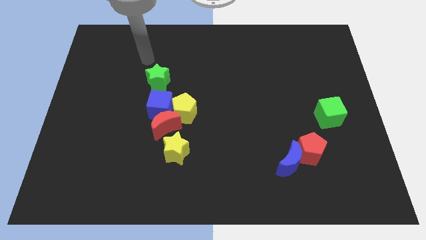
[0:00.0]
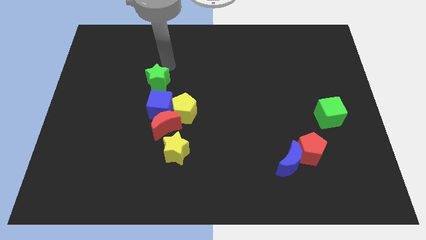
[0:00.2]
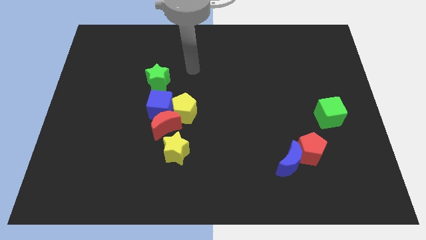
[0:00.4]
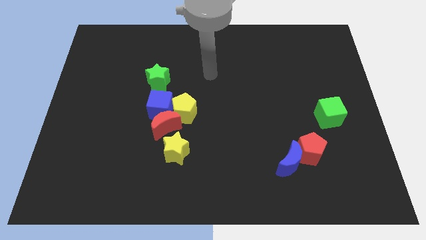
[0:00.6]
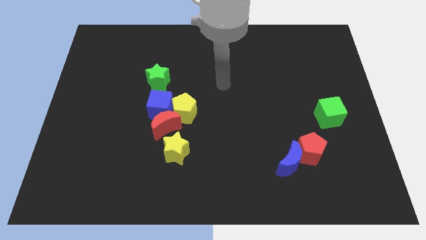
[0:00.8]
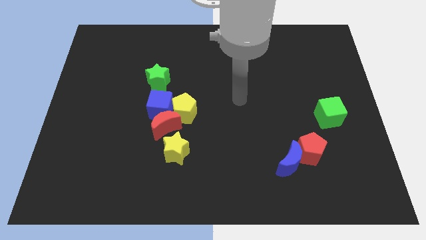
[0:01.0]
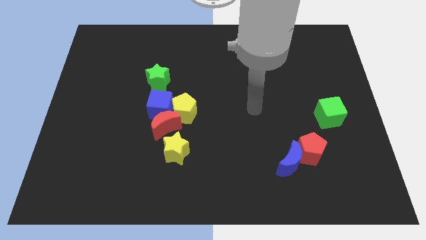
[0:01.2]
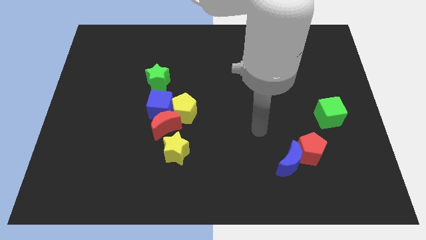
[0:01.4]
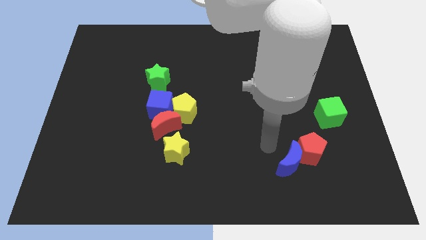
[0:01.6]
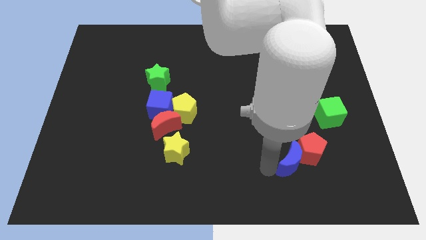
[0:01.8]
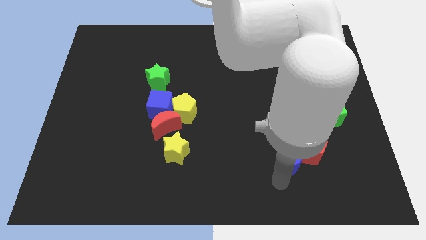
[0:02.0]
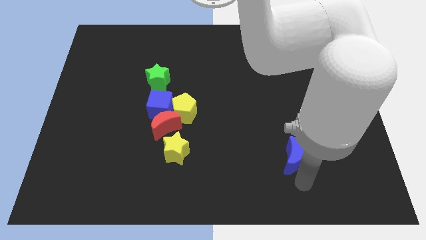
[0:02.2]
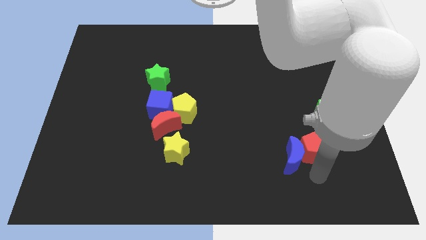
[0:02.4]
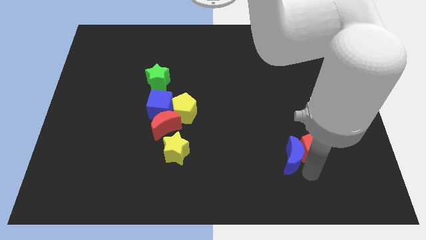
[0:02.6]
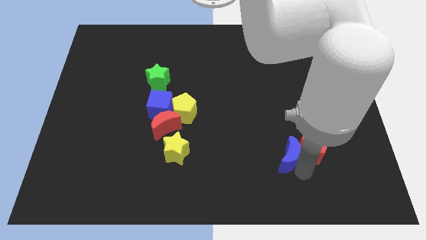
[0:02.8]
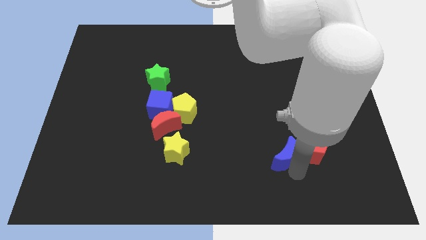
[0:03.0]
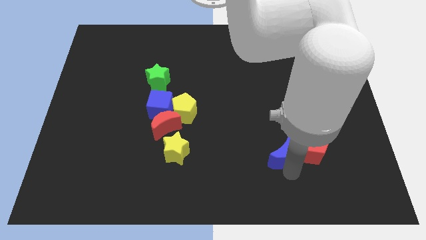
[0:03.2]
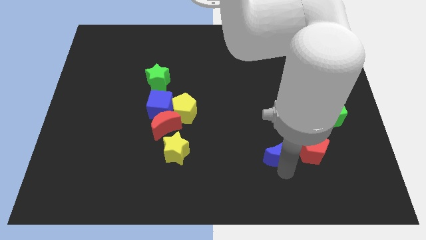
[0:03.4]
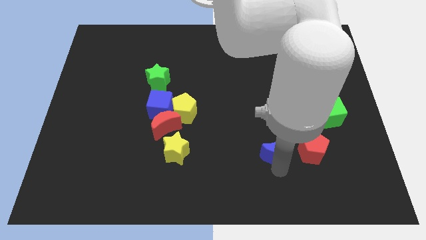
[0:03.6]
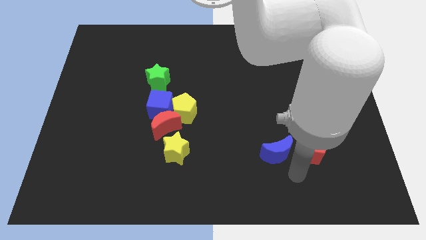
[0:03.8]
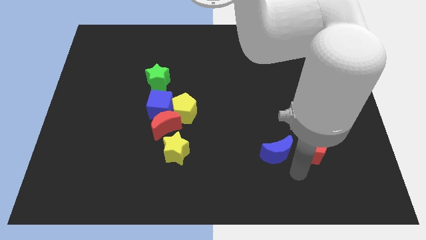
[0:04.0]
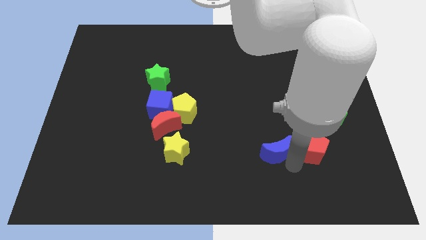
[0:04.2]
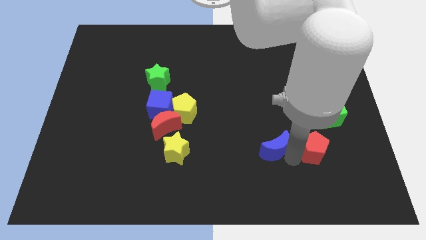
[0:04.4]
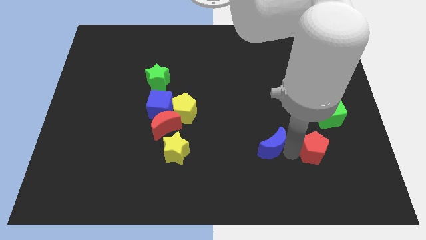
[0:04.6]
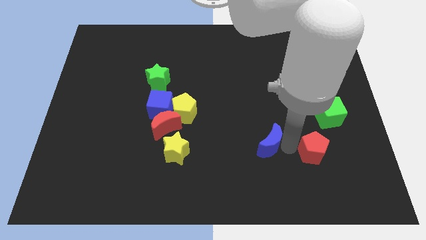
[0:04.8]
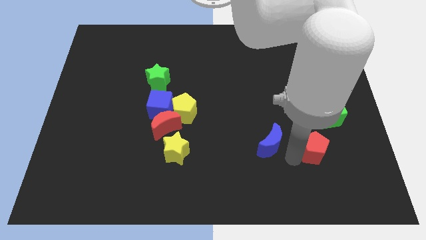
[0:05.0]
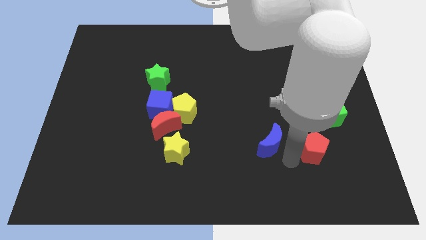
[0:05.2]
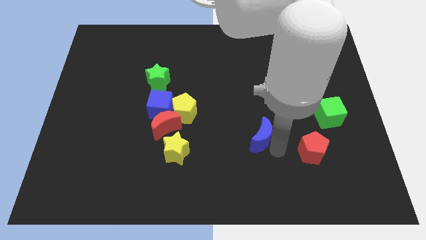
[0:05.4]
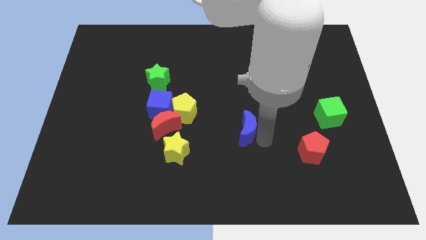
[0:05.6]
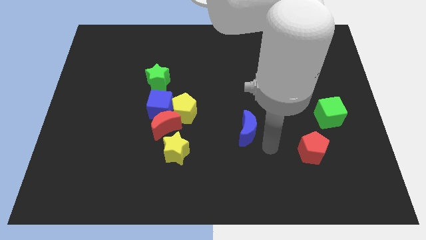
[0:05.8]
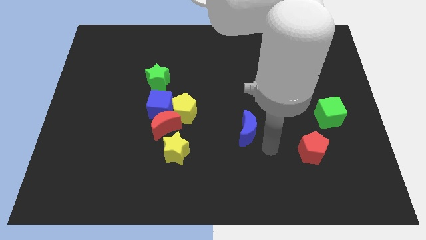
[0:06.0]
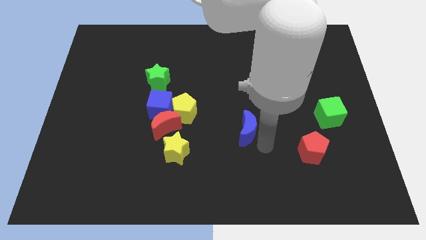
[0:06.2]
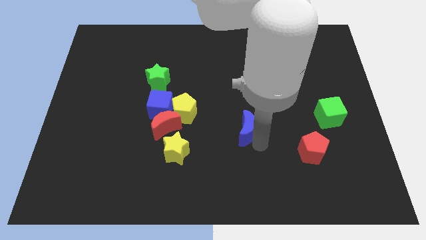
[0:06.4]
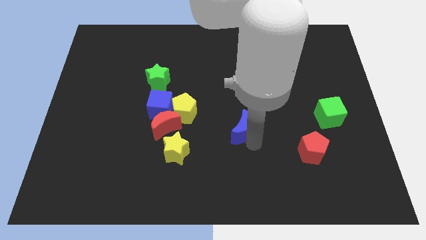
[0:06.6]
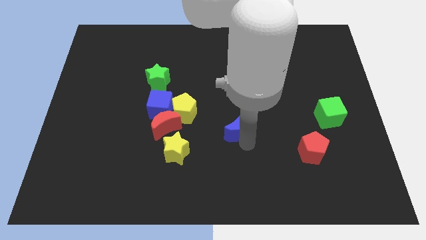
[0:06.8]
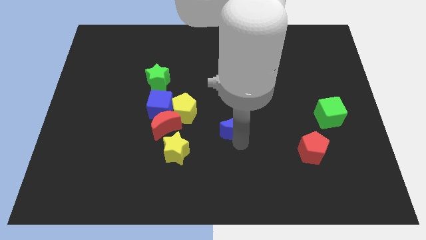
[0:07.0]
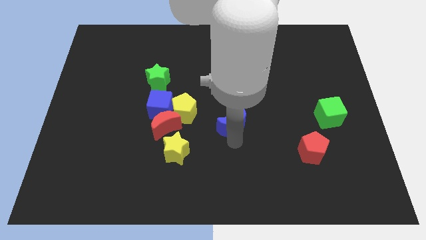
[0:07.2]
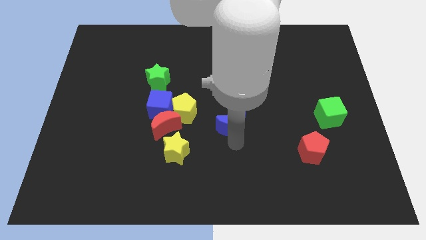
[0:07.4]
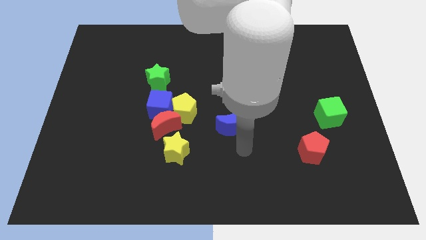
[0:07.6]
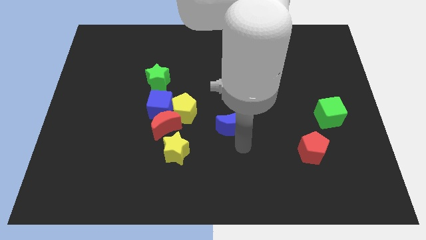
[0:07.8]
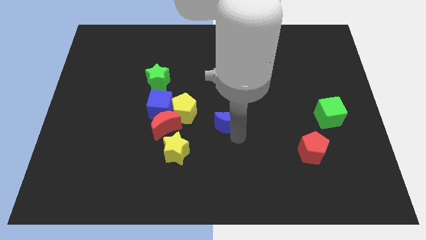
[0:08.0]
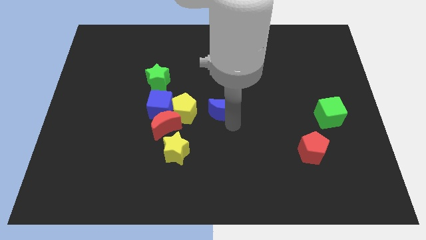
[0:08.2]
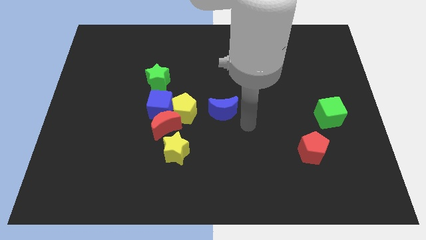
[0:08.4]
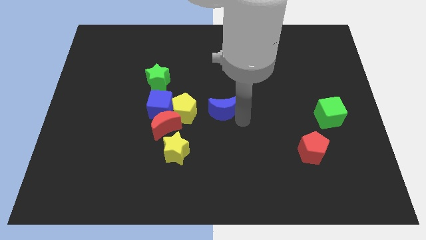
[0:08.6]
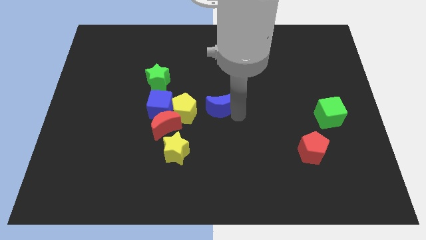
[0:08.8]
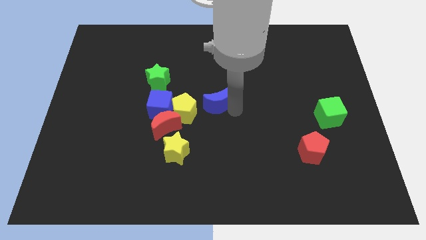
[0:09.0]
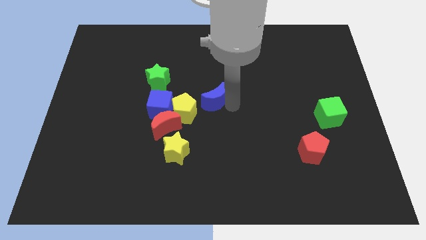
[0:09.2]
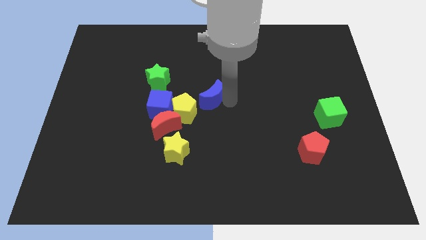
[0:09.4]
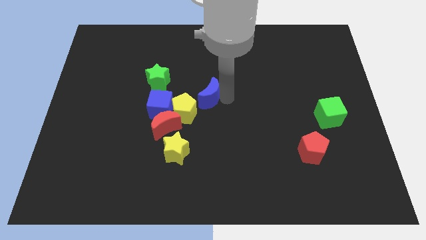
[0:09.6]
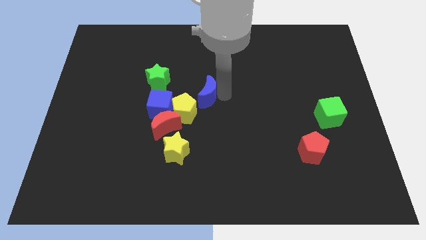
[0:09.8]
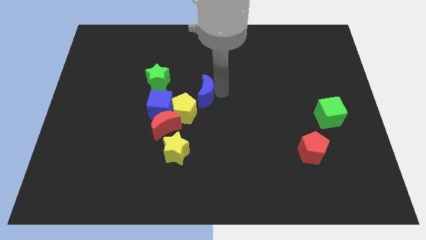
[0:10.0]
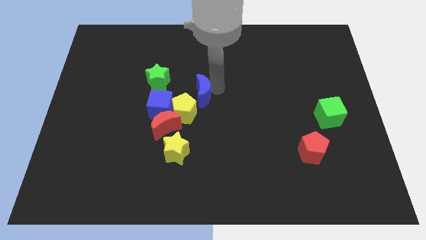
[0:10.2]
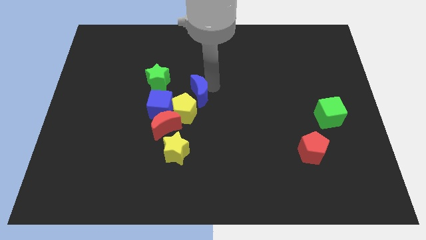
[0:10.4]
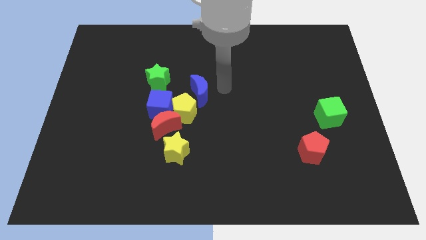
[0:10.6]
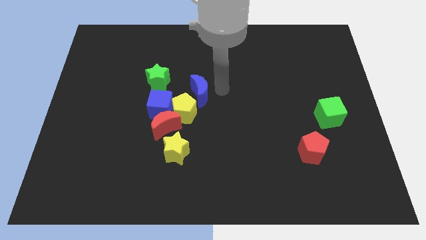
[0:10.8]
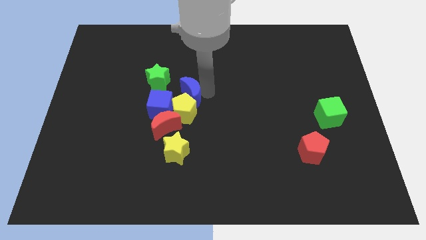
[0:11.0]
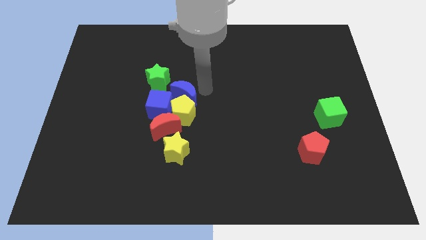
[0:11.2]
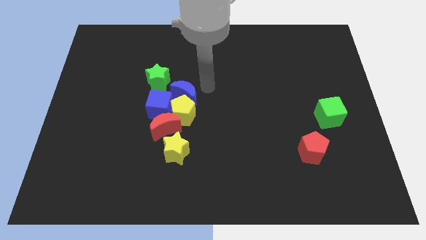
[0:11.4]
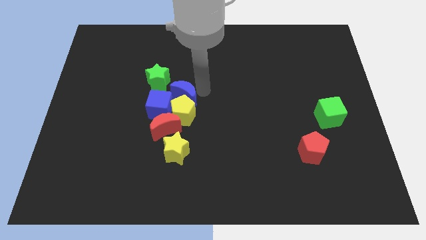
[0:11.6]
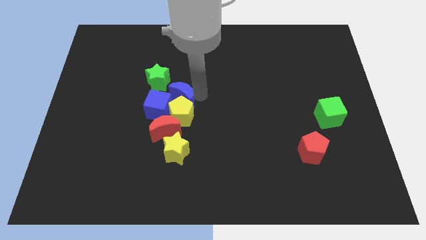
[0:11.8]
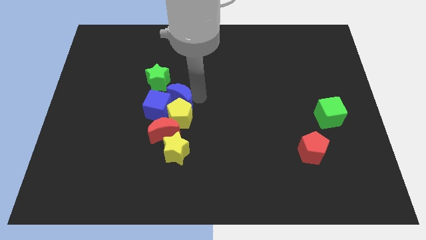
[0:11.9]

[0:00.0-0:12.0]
push the blue moon close to the blue cube
